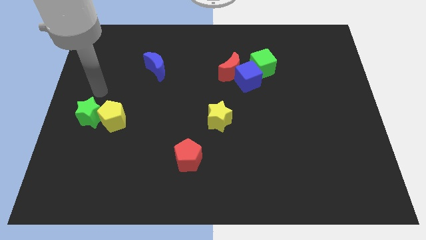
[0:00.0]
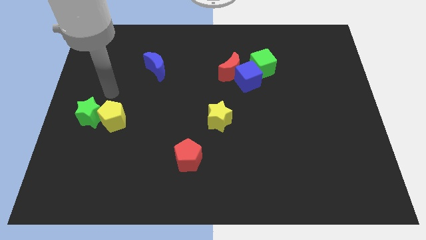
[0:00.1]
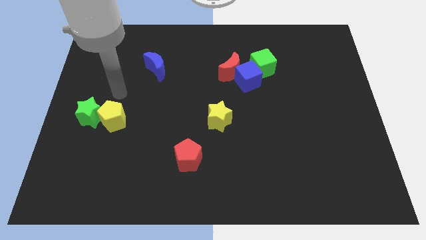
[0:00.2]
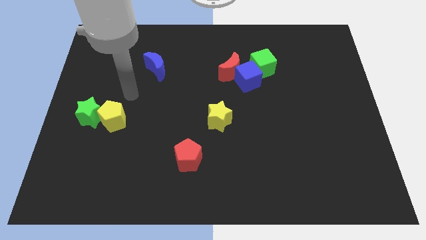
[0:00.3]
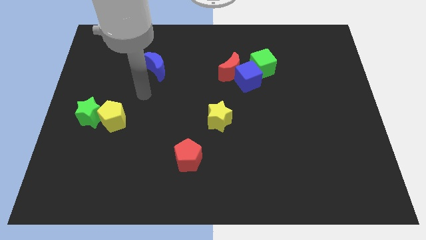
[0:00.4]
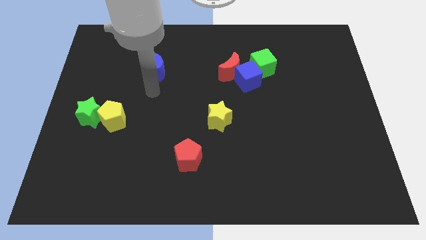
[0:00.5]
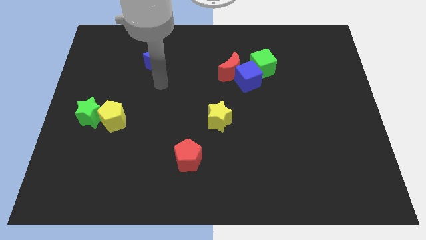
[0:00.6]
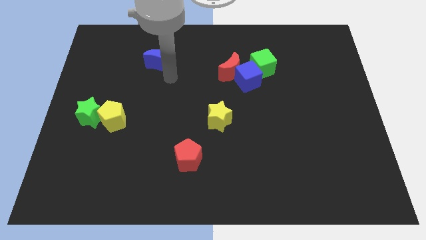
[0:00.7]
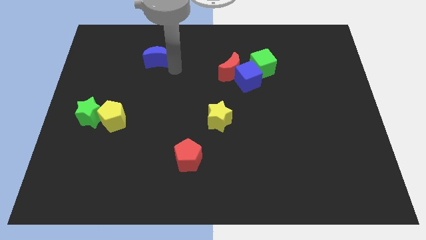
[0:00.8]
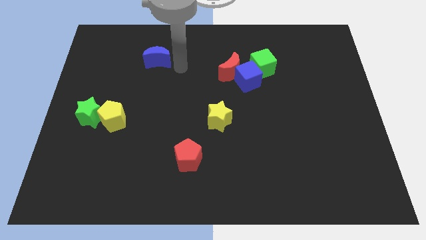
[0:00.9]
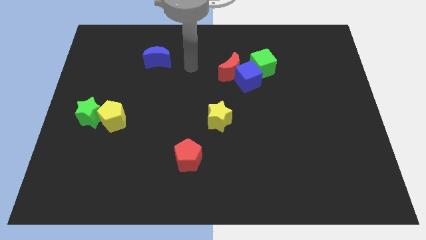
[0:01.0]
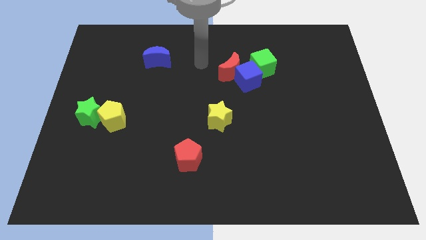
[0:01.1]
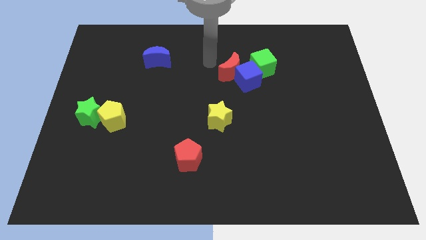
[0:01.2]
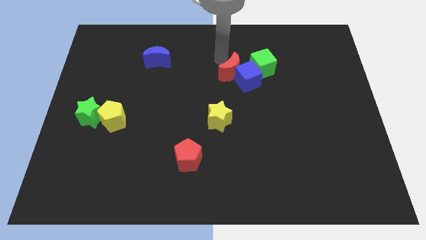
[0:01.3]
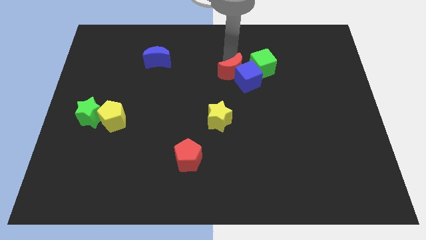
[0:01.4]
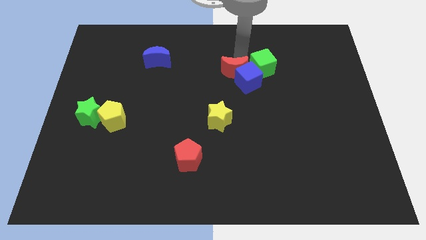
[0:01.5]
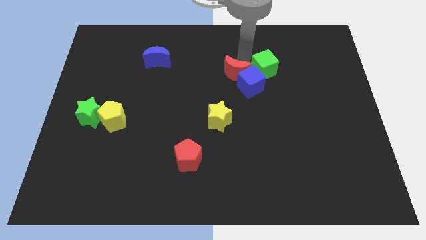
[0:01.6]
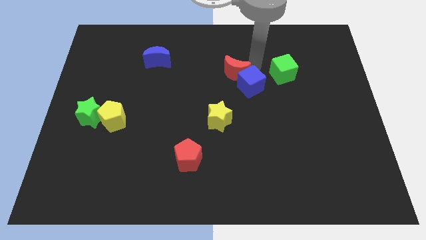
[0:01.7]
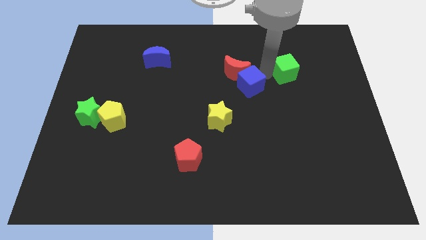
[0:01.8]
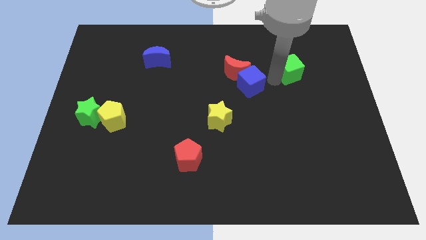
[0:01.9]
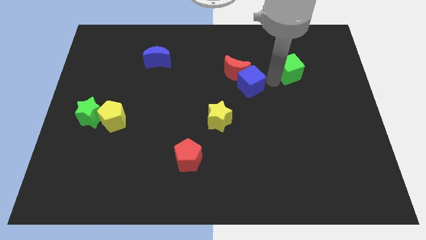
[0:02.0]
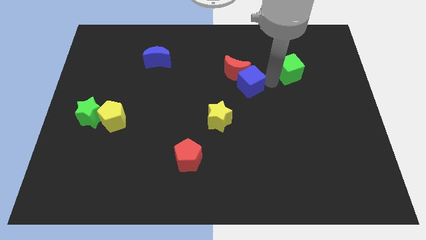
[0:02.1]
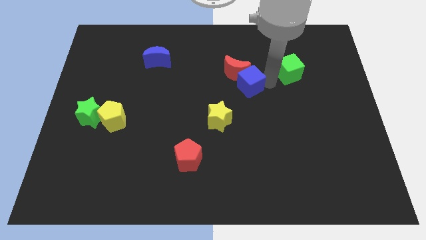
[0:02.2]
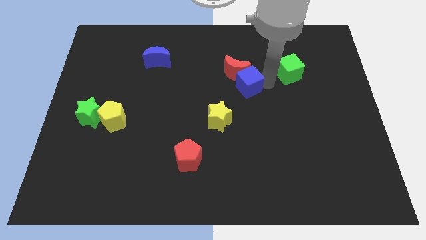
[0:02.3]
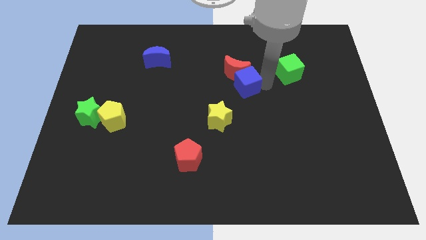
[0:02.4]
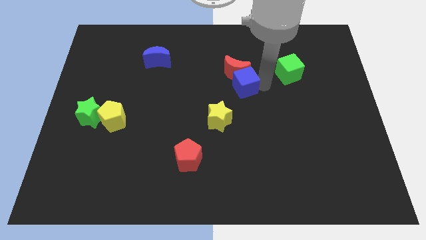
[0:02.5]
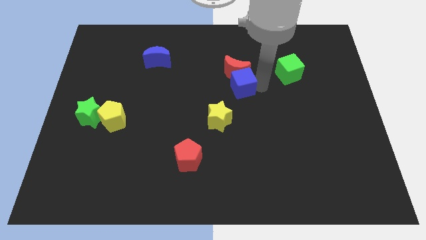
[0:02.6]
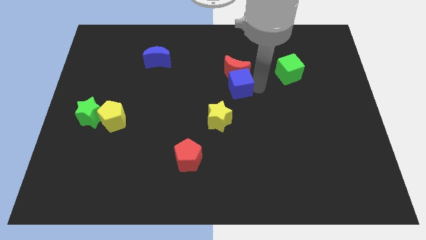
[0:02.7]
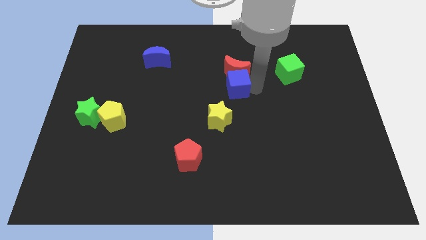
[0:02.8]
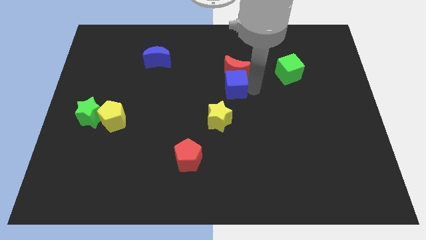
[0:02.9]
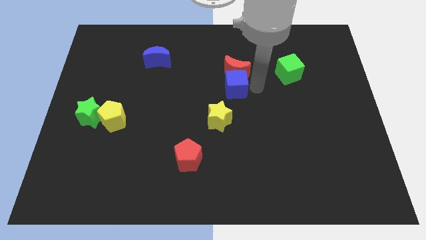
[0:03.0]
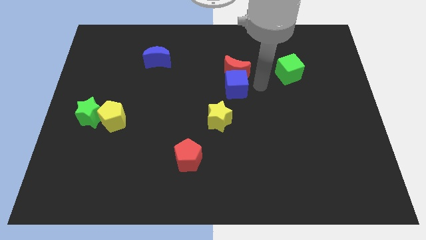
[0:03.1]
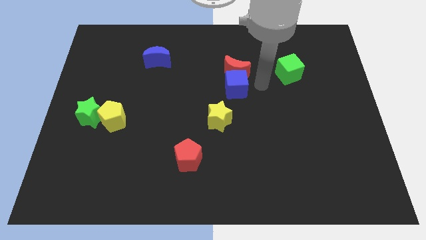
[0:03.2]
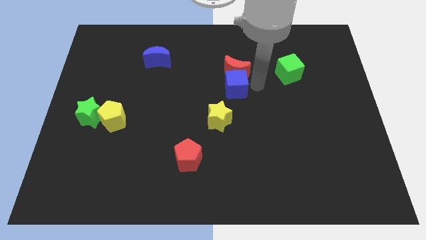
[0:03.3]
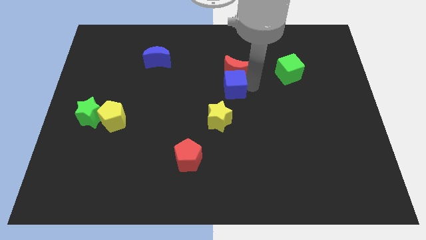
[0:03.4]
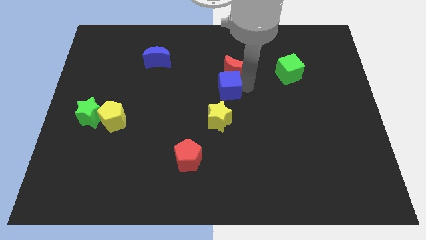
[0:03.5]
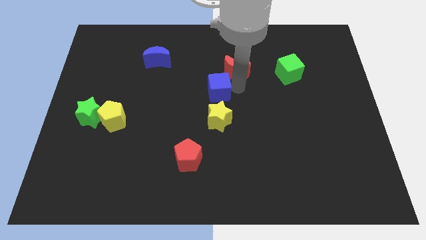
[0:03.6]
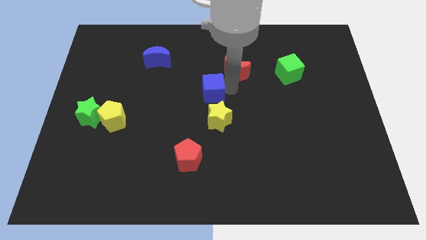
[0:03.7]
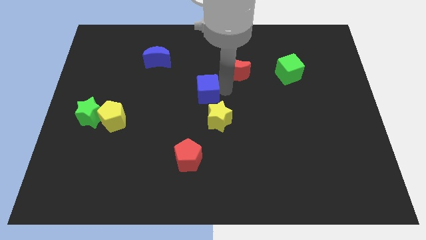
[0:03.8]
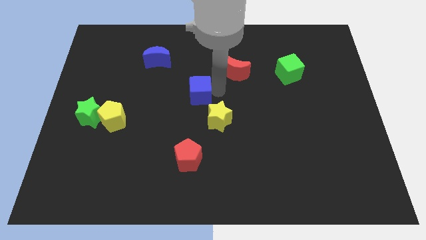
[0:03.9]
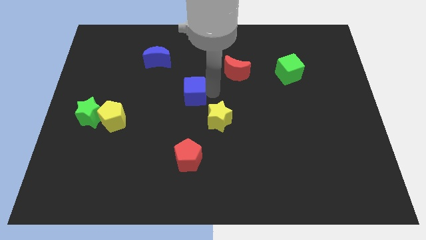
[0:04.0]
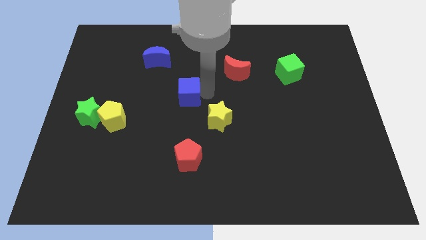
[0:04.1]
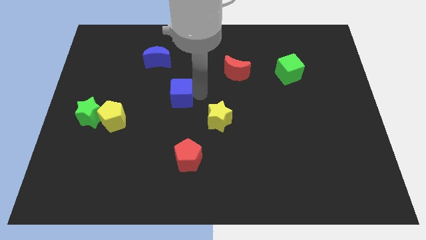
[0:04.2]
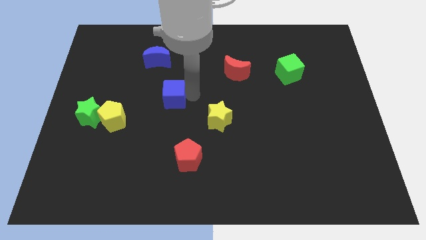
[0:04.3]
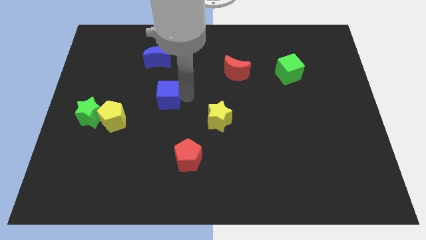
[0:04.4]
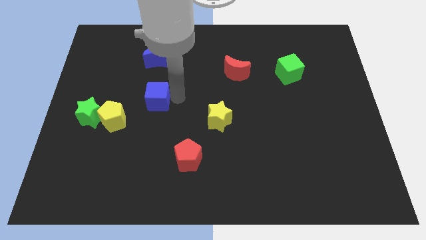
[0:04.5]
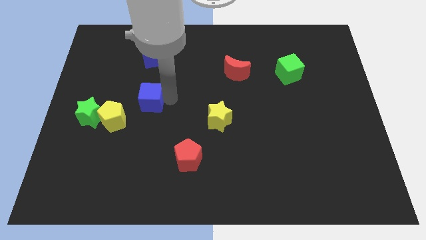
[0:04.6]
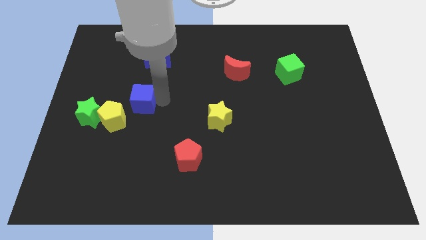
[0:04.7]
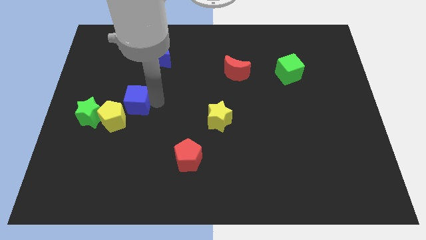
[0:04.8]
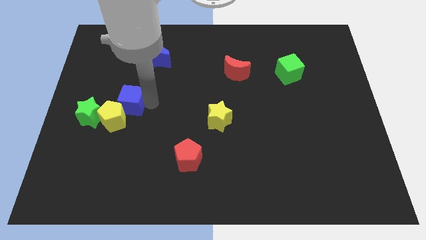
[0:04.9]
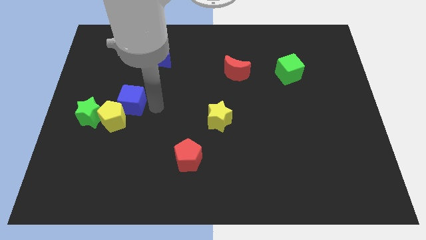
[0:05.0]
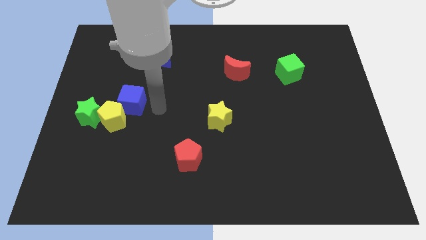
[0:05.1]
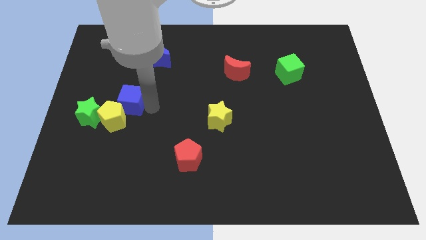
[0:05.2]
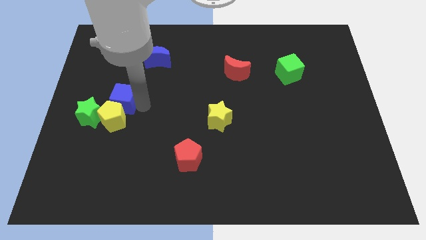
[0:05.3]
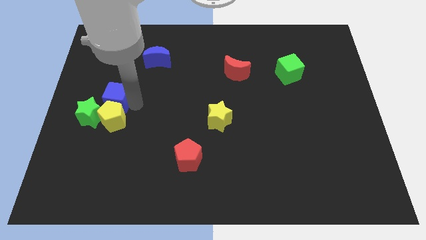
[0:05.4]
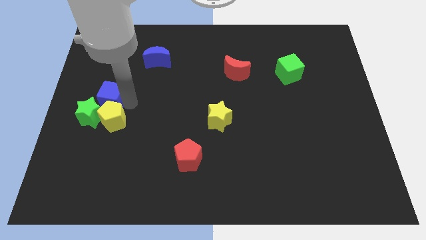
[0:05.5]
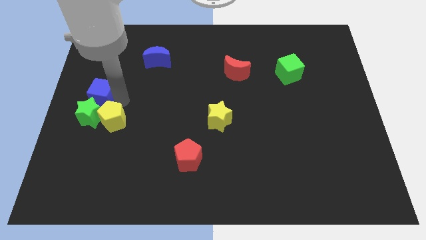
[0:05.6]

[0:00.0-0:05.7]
put the blue cube to the left side of the board

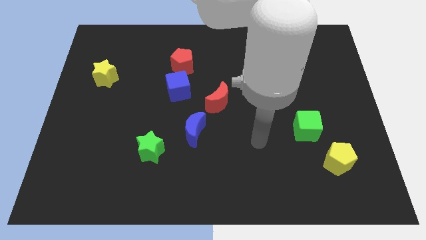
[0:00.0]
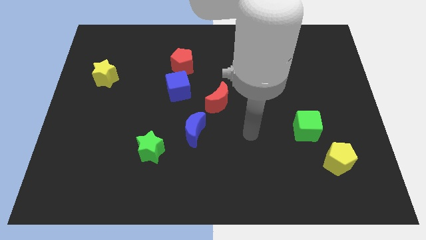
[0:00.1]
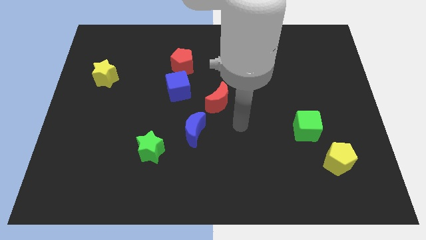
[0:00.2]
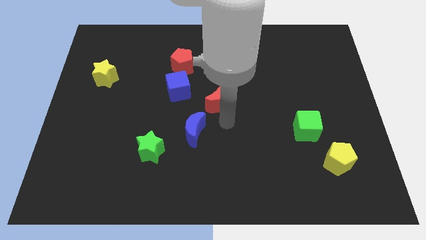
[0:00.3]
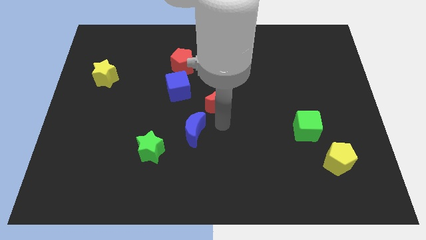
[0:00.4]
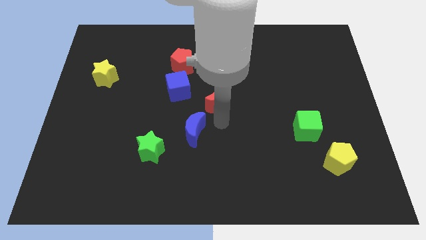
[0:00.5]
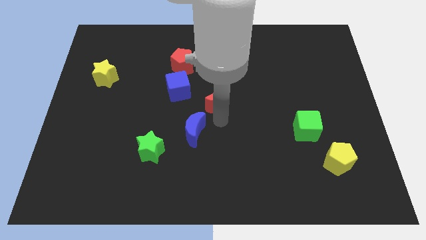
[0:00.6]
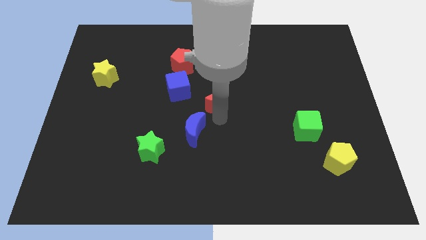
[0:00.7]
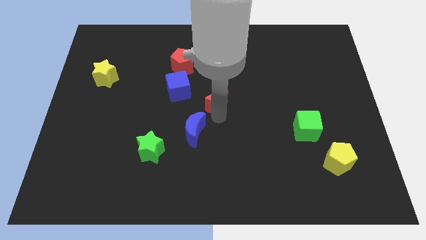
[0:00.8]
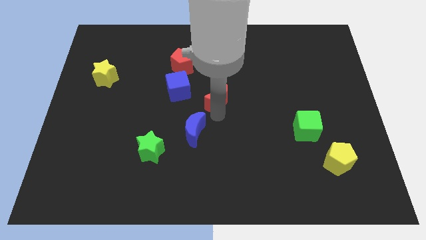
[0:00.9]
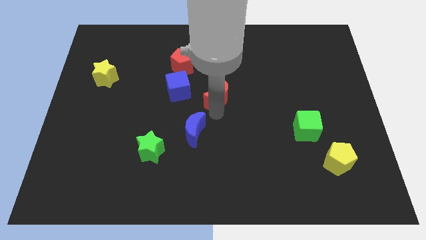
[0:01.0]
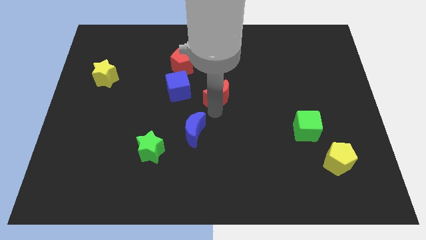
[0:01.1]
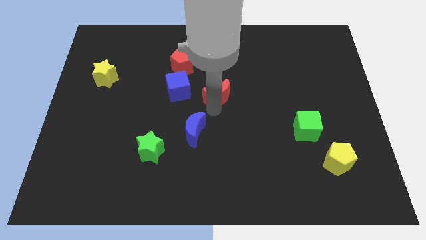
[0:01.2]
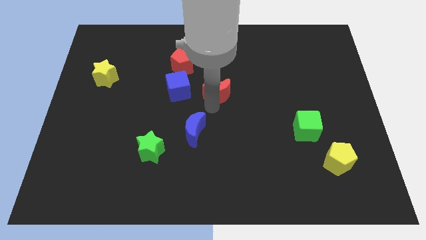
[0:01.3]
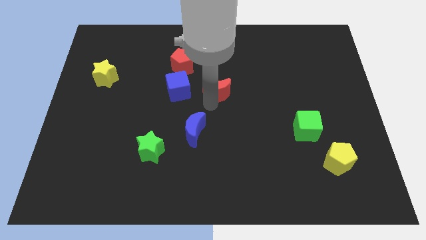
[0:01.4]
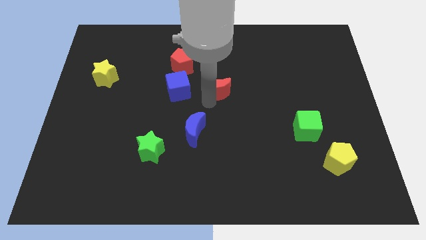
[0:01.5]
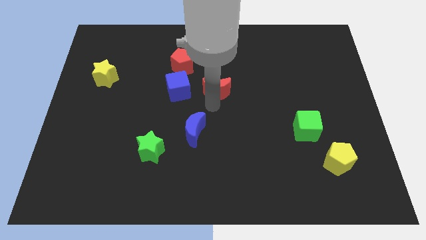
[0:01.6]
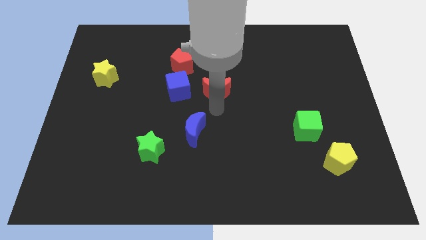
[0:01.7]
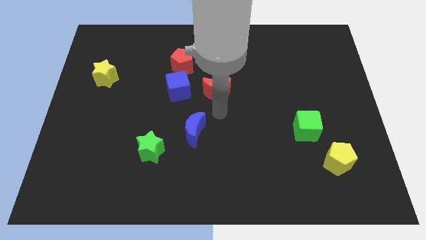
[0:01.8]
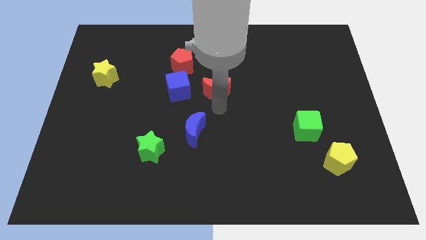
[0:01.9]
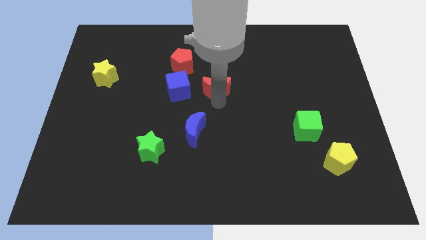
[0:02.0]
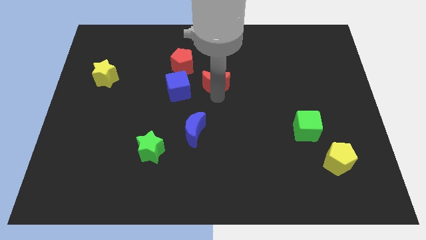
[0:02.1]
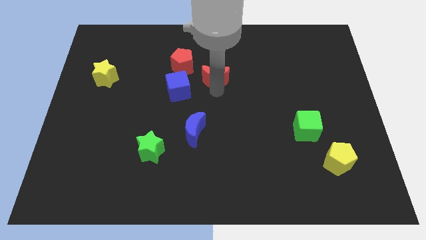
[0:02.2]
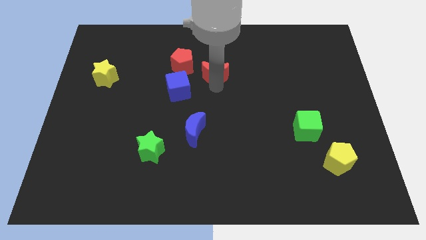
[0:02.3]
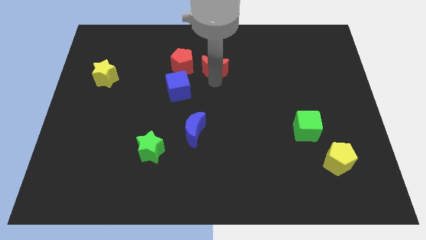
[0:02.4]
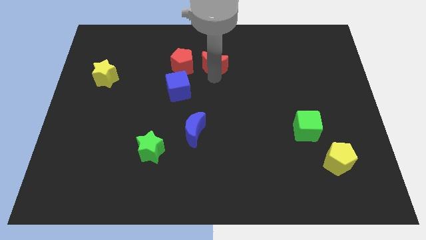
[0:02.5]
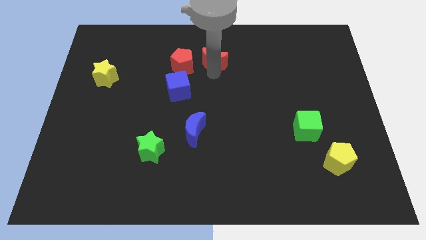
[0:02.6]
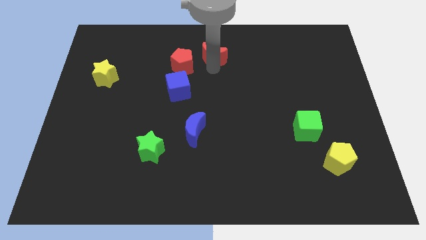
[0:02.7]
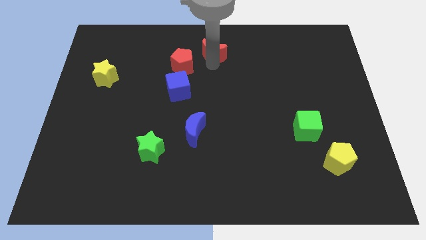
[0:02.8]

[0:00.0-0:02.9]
push the red moon to the top
